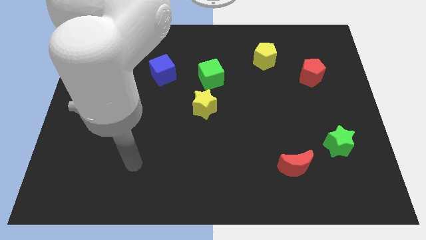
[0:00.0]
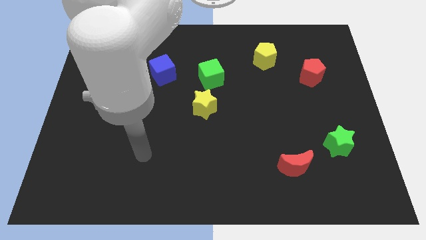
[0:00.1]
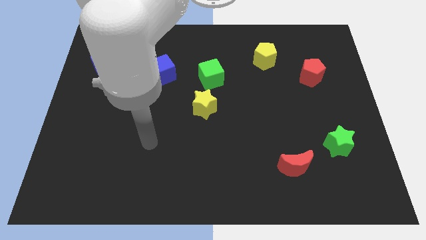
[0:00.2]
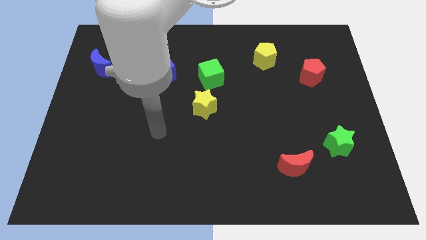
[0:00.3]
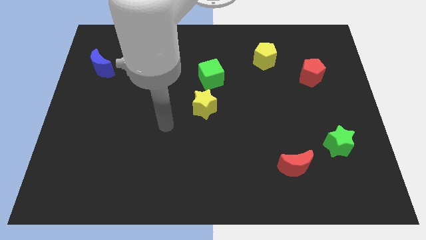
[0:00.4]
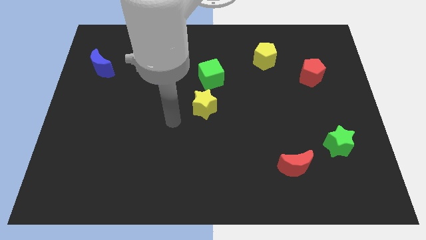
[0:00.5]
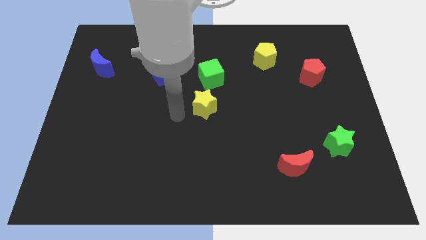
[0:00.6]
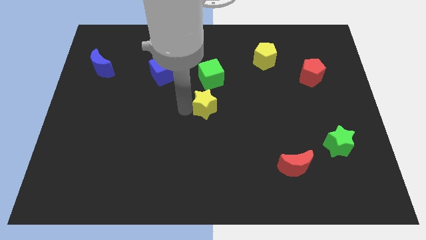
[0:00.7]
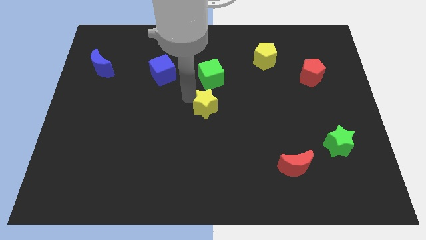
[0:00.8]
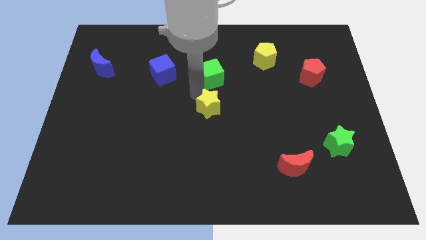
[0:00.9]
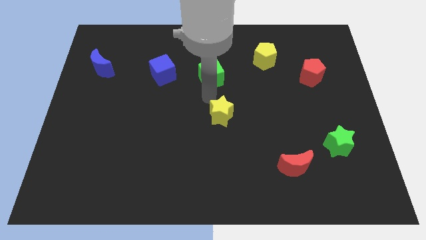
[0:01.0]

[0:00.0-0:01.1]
move the green cube away from the yellow star

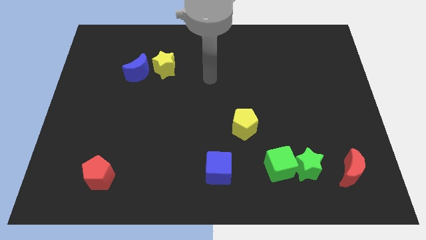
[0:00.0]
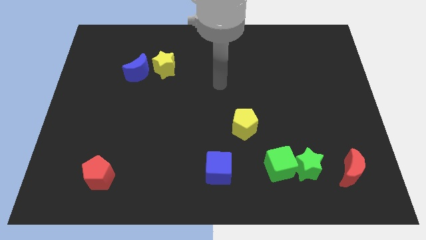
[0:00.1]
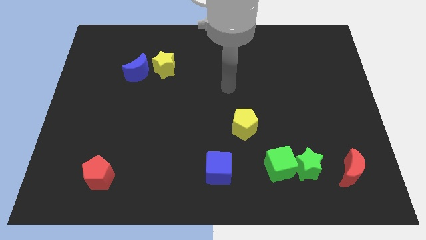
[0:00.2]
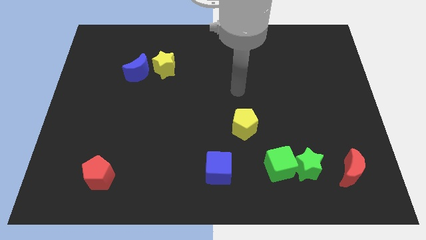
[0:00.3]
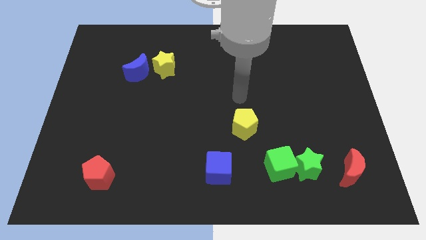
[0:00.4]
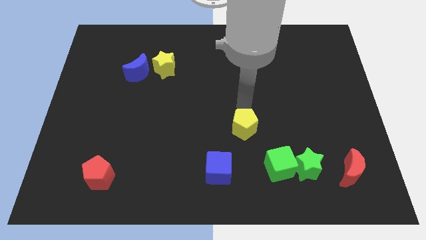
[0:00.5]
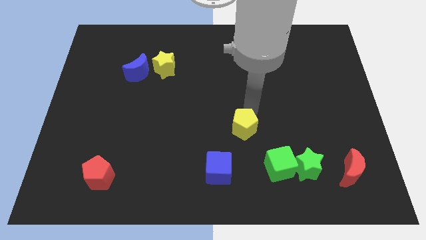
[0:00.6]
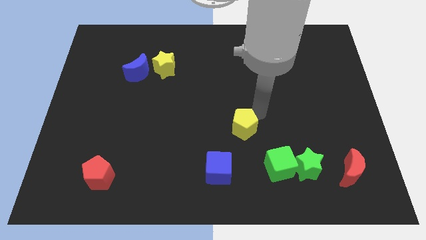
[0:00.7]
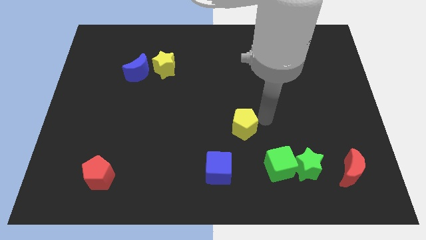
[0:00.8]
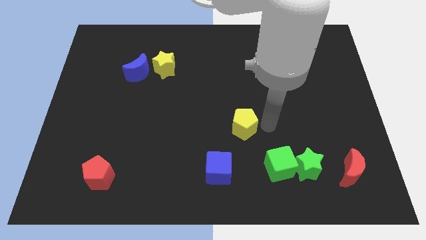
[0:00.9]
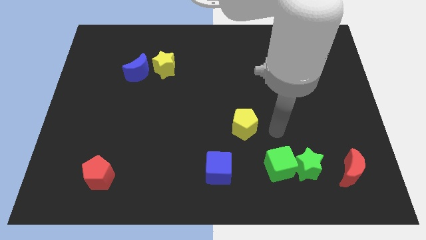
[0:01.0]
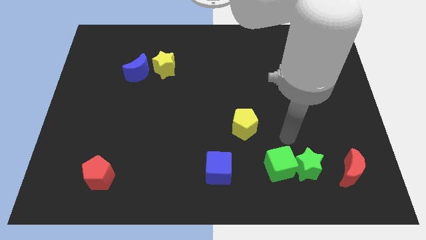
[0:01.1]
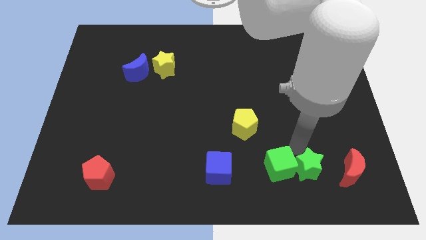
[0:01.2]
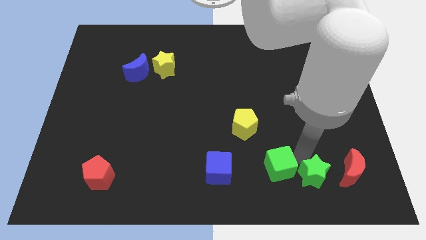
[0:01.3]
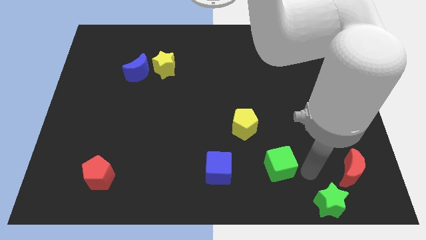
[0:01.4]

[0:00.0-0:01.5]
separate the green cube from the green star

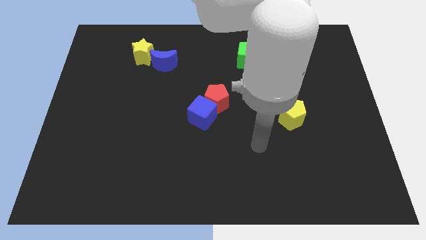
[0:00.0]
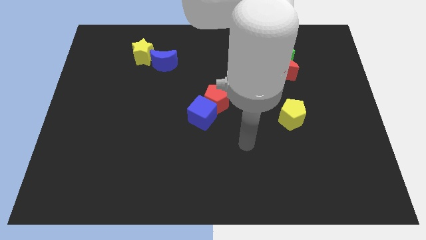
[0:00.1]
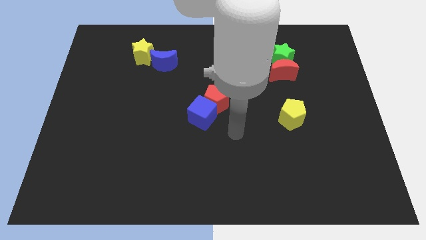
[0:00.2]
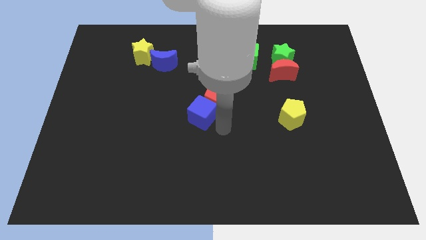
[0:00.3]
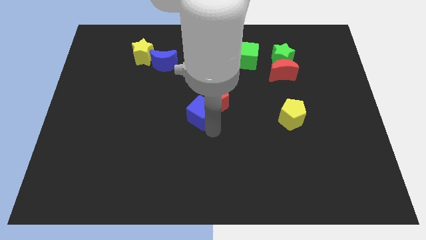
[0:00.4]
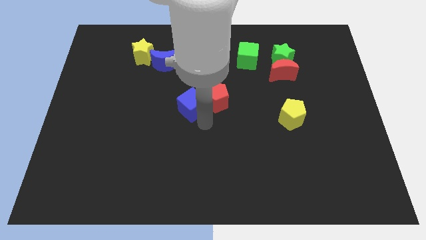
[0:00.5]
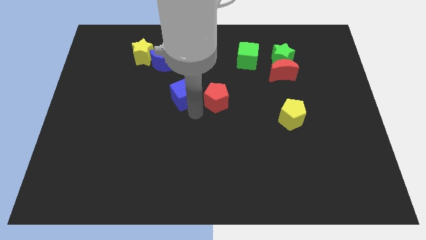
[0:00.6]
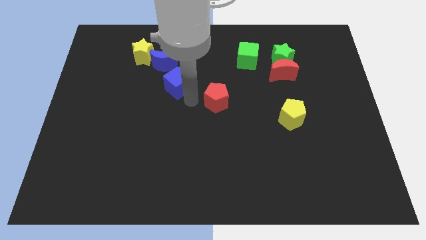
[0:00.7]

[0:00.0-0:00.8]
separate the red pentagon from the blue cube

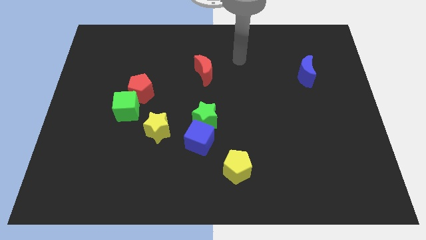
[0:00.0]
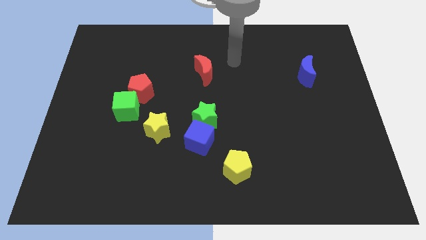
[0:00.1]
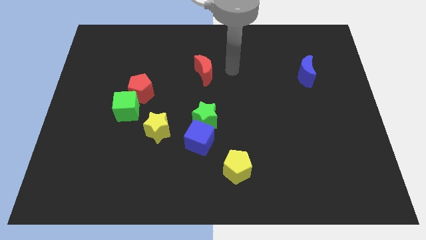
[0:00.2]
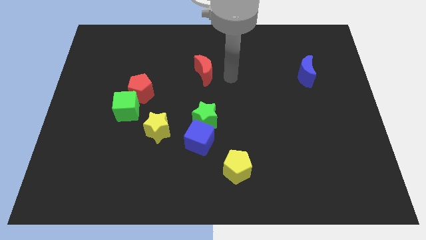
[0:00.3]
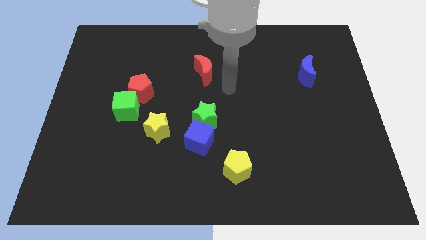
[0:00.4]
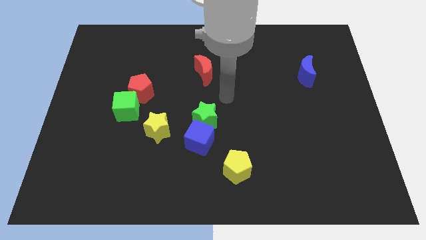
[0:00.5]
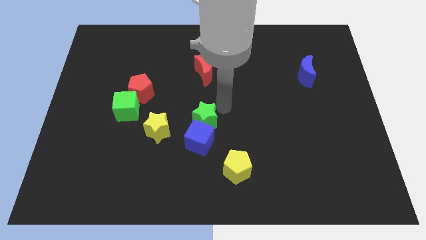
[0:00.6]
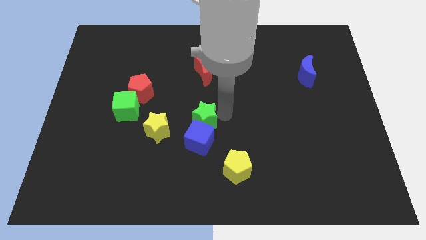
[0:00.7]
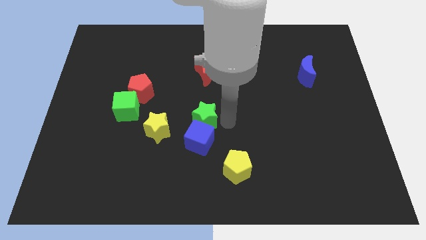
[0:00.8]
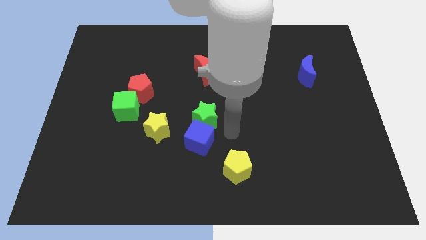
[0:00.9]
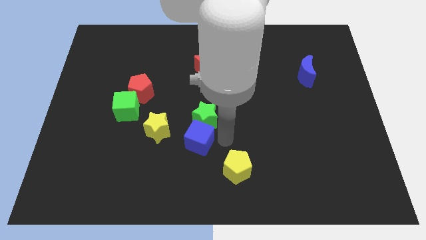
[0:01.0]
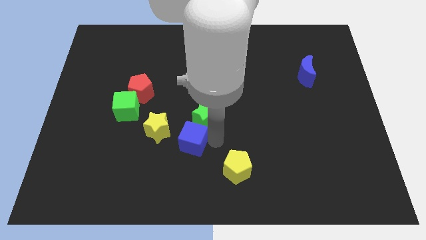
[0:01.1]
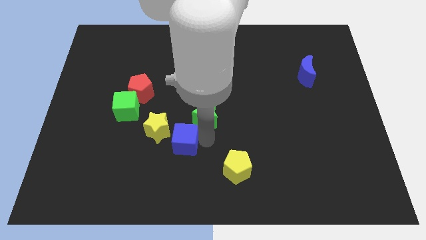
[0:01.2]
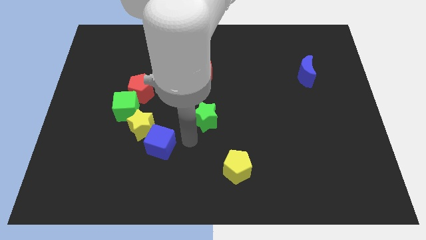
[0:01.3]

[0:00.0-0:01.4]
move the green star away from the blue cube

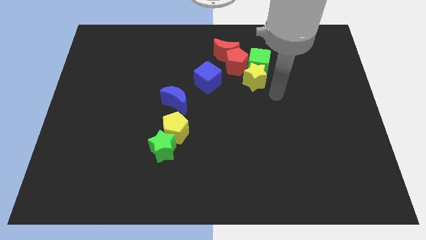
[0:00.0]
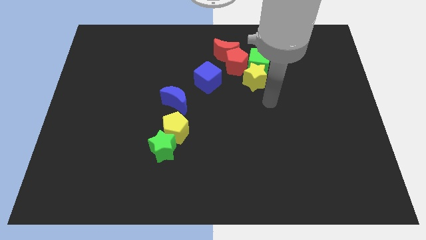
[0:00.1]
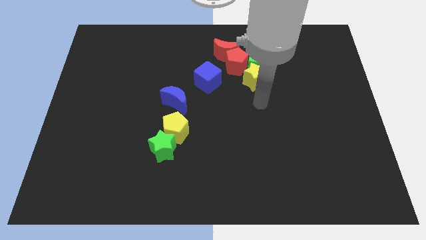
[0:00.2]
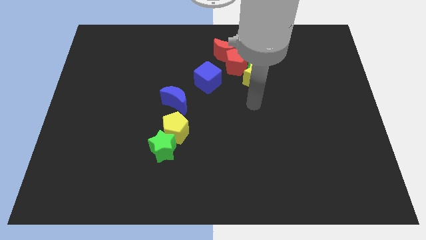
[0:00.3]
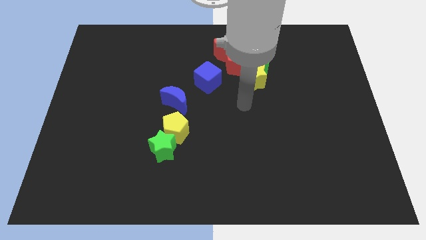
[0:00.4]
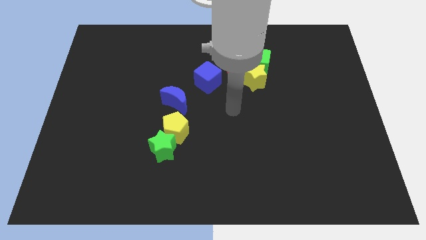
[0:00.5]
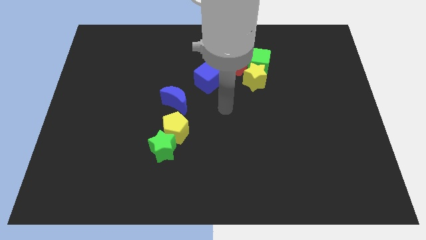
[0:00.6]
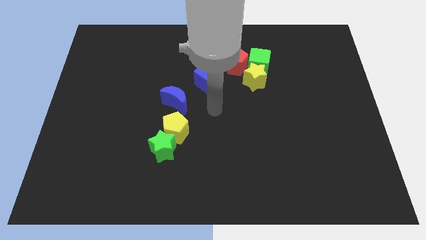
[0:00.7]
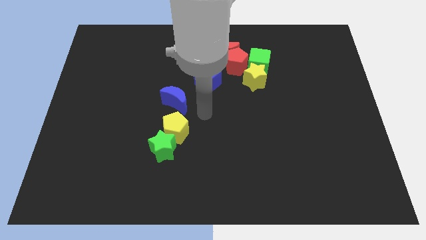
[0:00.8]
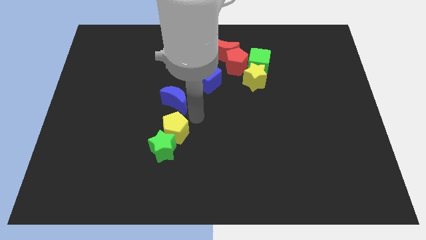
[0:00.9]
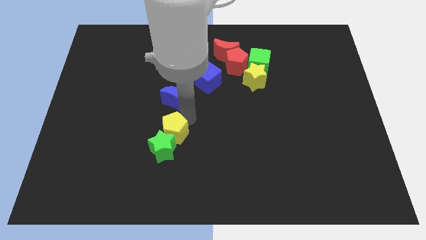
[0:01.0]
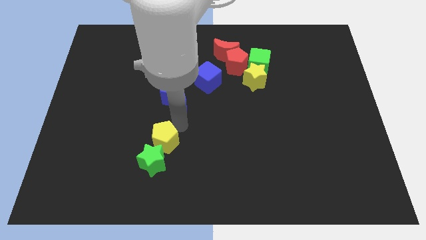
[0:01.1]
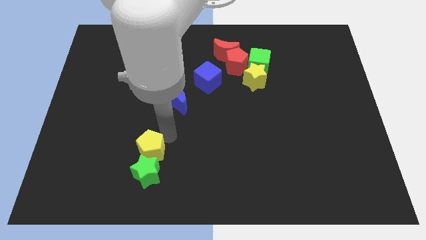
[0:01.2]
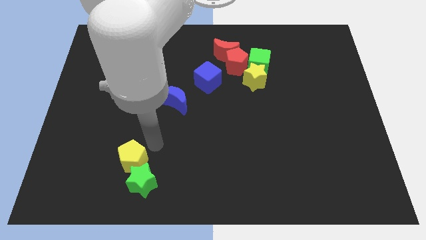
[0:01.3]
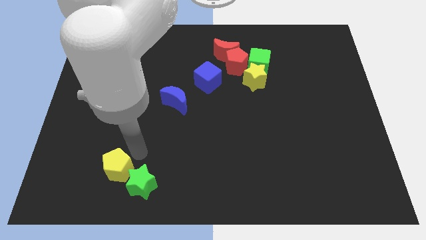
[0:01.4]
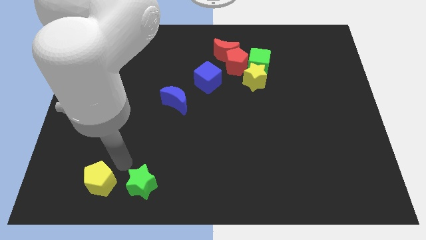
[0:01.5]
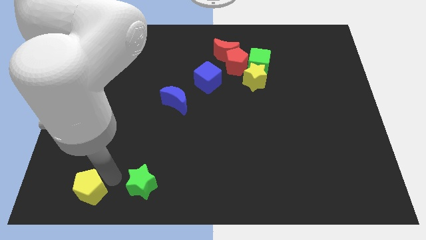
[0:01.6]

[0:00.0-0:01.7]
pull the green star apart from the yellow pentagon

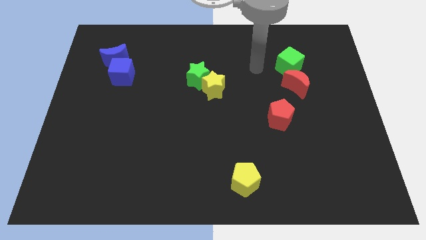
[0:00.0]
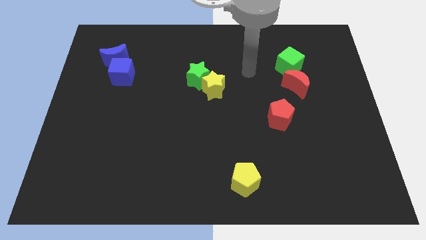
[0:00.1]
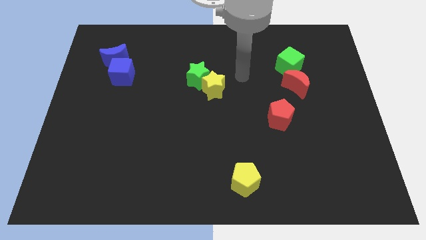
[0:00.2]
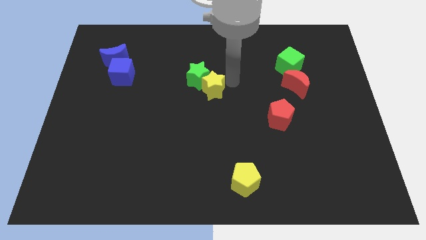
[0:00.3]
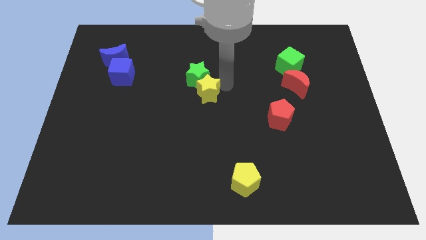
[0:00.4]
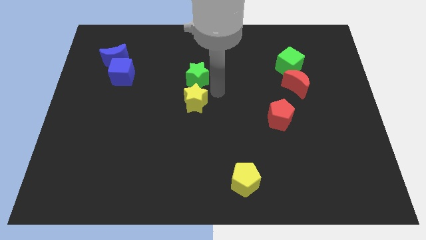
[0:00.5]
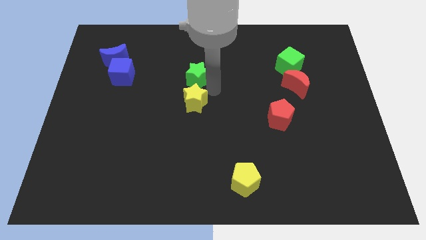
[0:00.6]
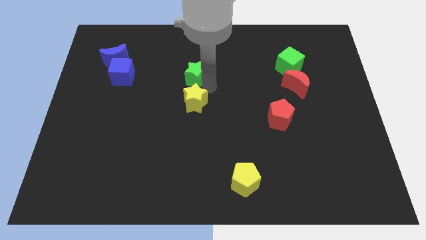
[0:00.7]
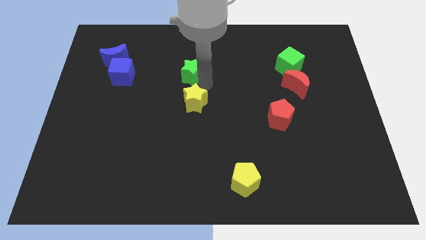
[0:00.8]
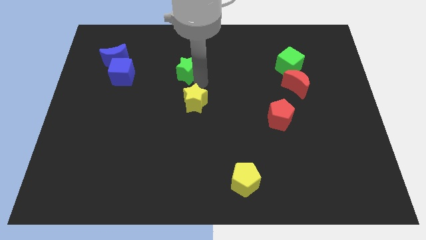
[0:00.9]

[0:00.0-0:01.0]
pull the green star apart from the yellow star

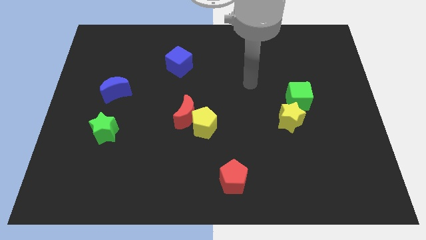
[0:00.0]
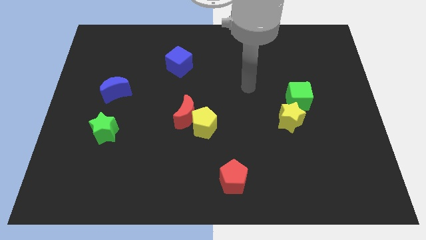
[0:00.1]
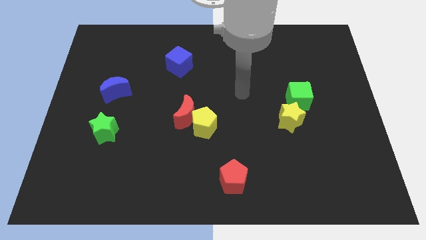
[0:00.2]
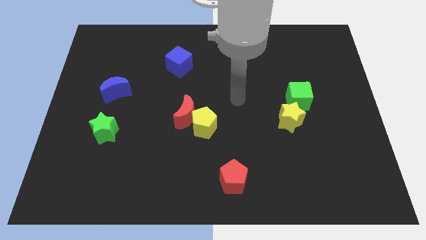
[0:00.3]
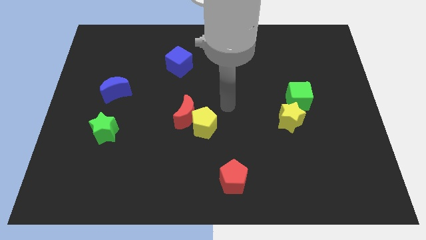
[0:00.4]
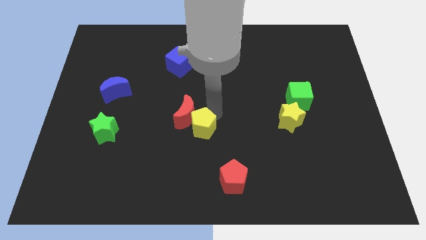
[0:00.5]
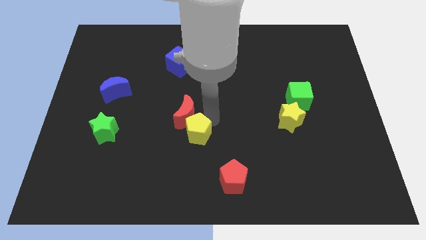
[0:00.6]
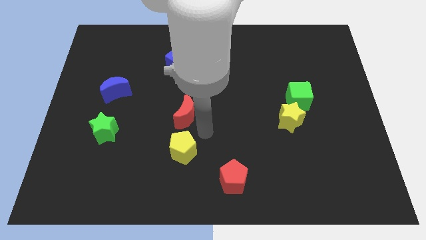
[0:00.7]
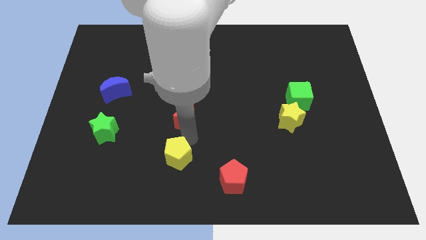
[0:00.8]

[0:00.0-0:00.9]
separate the red moon from the yellow pentagon

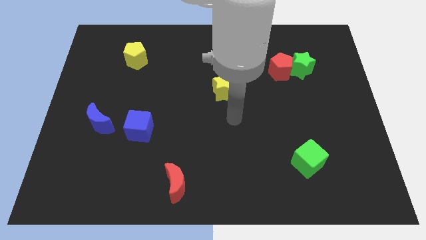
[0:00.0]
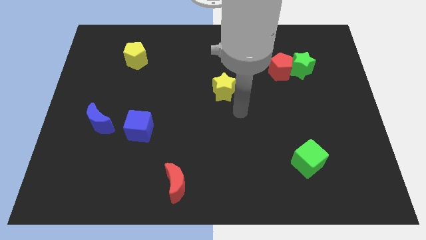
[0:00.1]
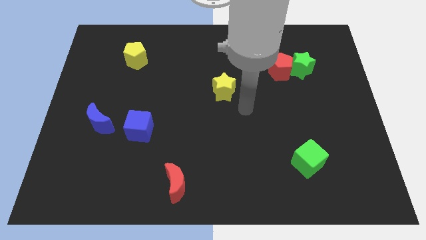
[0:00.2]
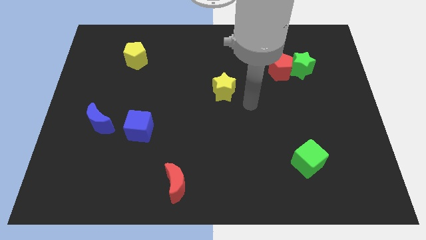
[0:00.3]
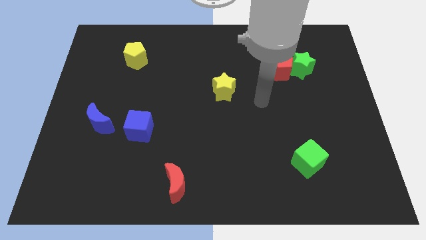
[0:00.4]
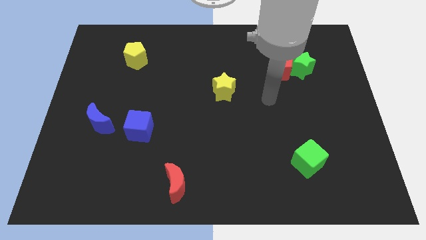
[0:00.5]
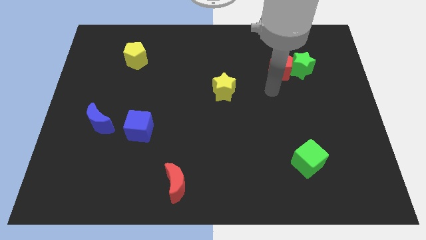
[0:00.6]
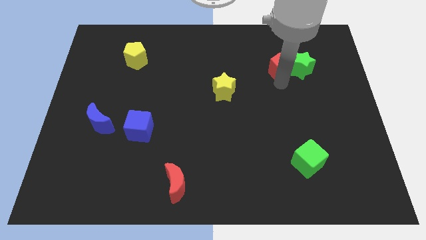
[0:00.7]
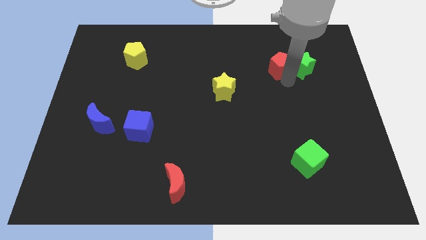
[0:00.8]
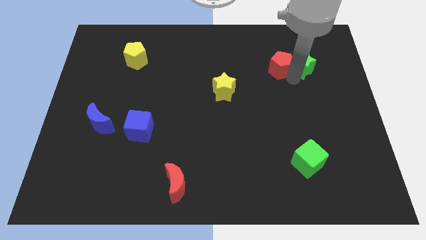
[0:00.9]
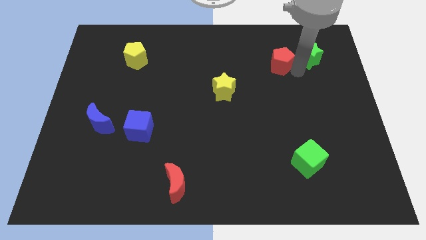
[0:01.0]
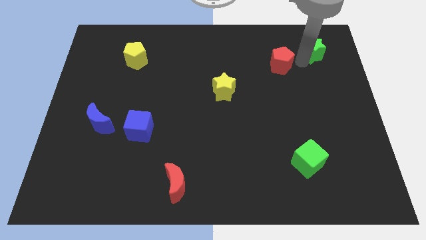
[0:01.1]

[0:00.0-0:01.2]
move the red pentagon away from the green star
